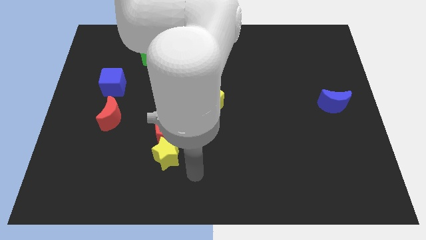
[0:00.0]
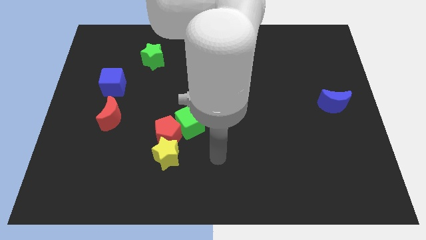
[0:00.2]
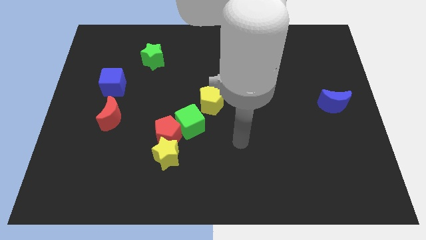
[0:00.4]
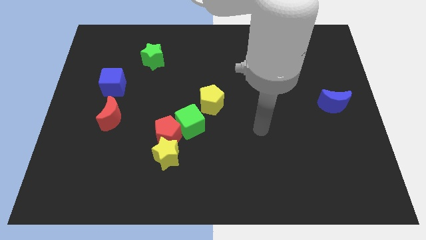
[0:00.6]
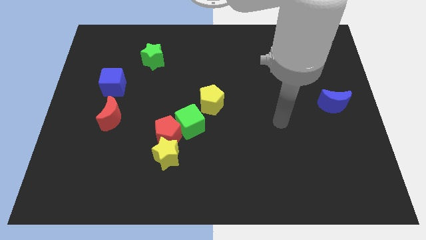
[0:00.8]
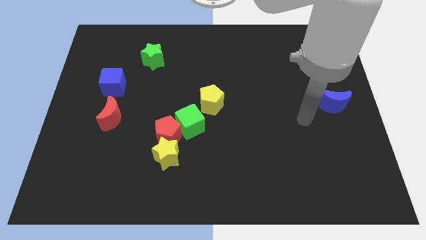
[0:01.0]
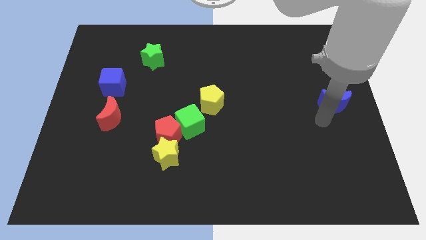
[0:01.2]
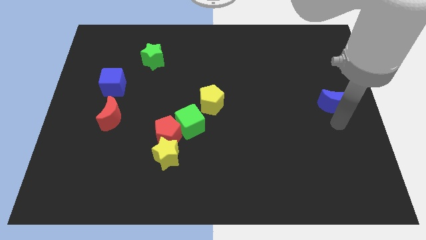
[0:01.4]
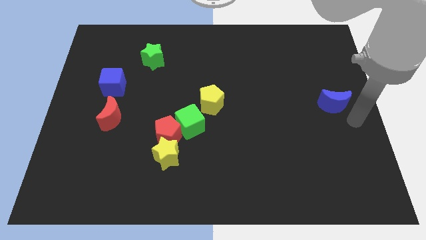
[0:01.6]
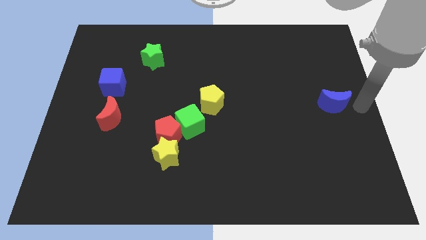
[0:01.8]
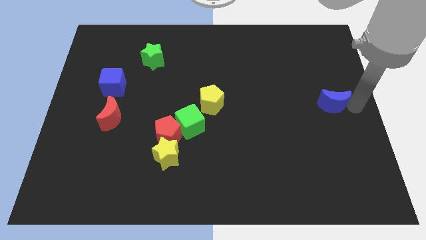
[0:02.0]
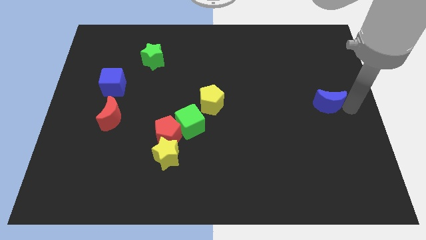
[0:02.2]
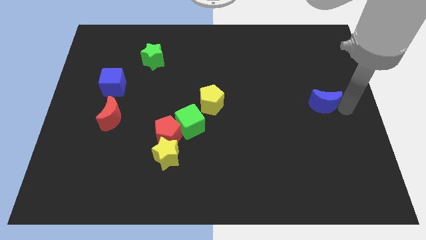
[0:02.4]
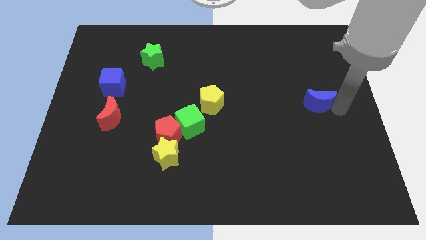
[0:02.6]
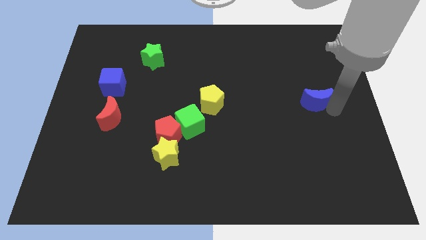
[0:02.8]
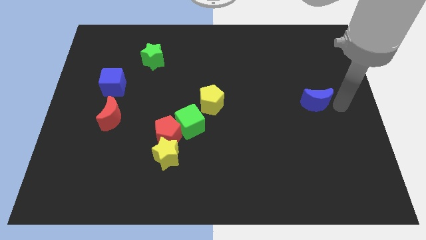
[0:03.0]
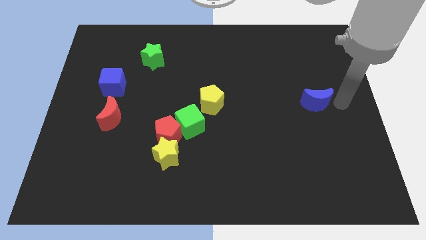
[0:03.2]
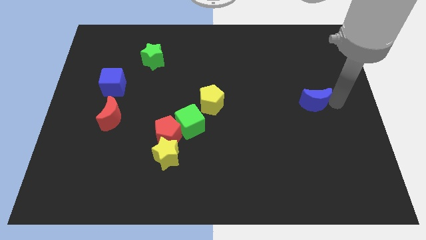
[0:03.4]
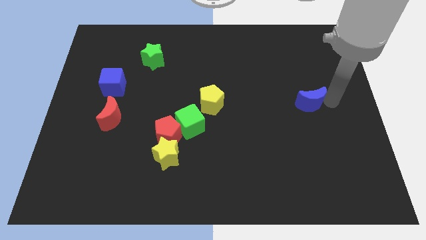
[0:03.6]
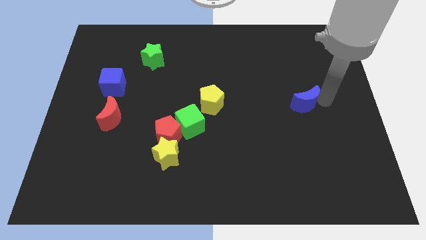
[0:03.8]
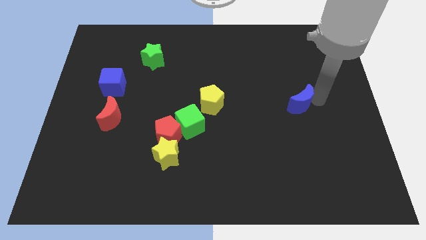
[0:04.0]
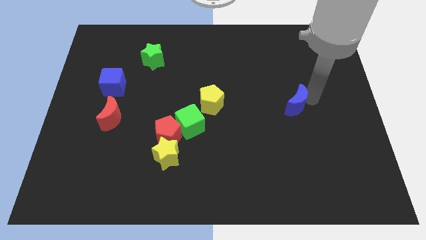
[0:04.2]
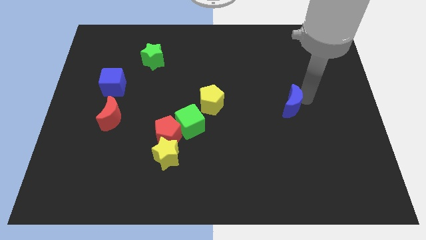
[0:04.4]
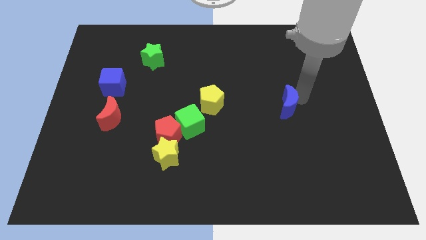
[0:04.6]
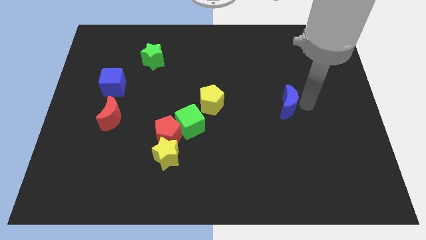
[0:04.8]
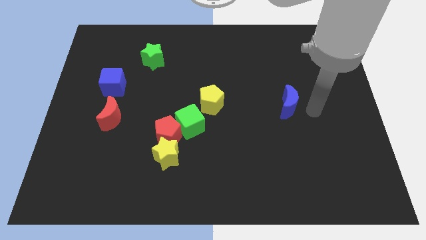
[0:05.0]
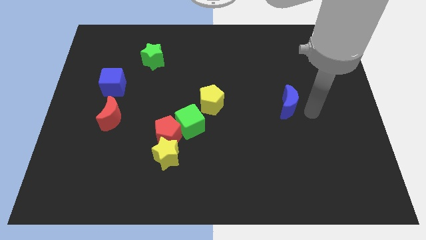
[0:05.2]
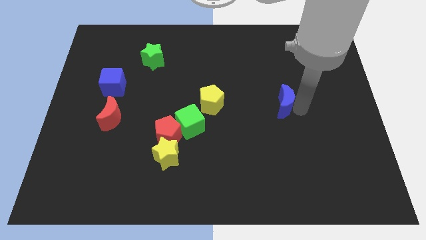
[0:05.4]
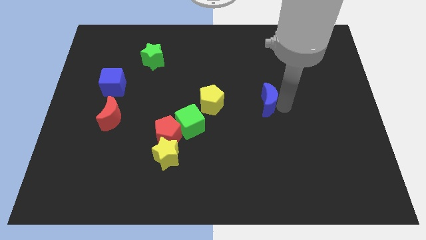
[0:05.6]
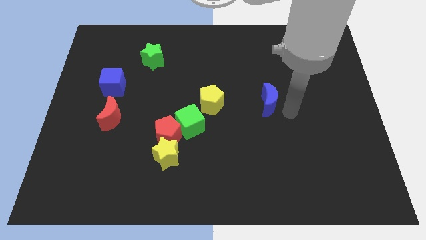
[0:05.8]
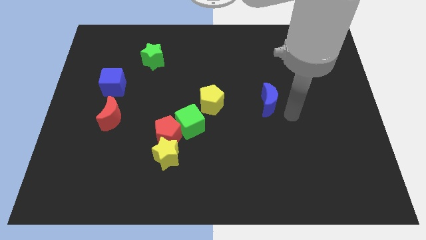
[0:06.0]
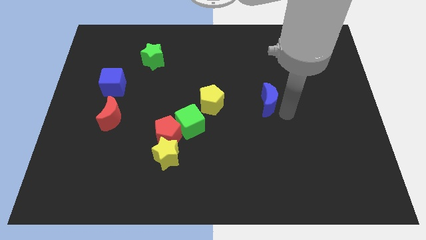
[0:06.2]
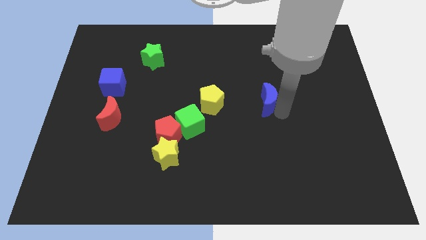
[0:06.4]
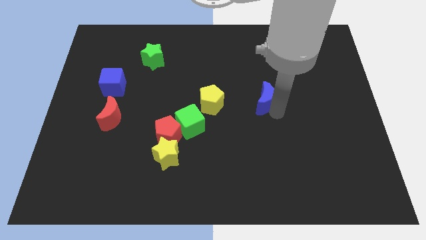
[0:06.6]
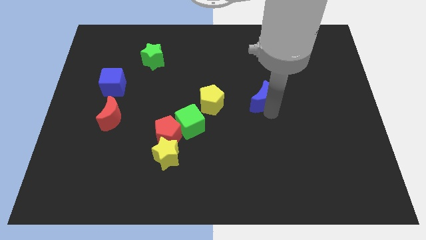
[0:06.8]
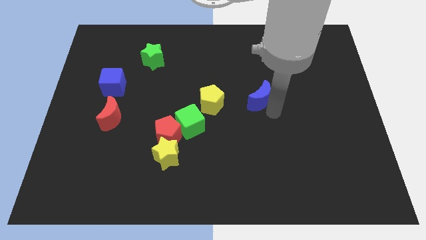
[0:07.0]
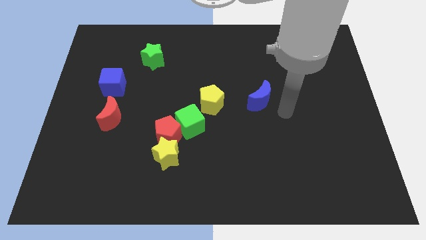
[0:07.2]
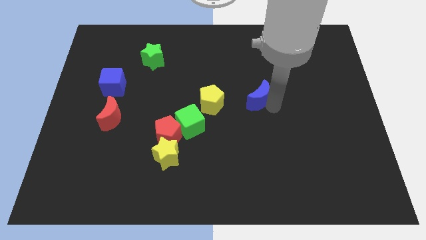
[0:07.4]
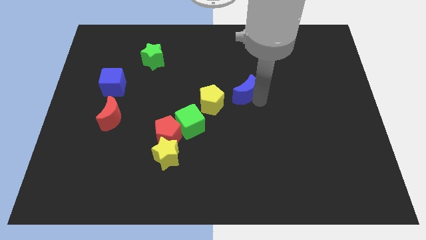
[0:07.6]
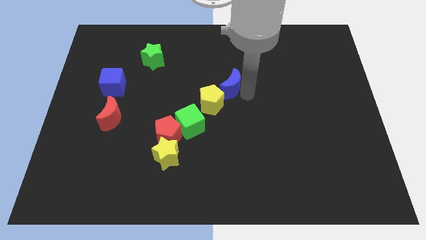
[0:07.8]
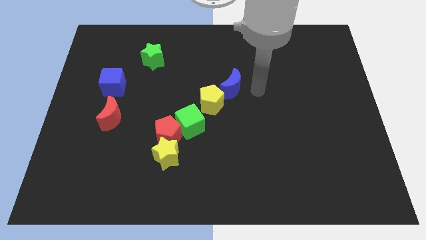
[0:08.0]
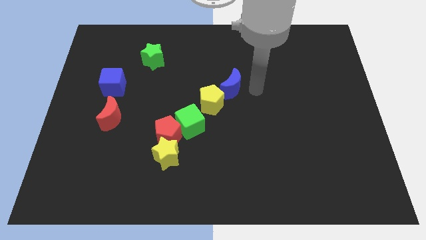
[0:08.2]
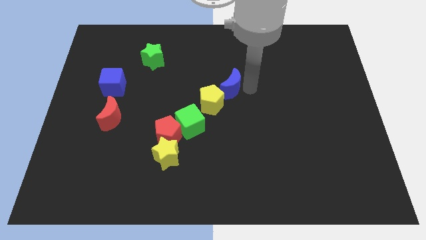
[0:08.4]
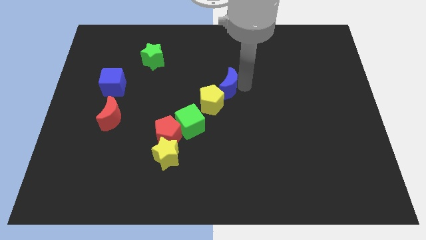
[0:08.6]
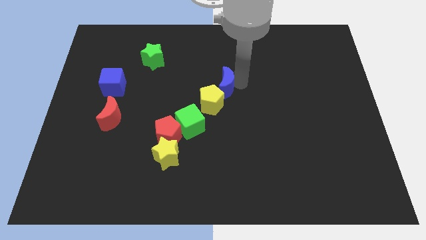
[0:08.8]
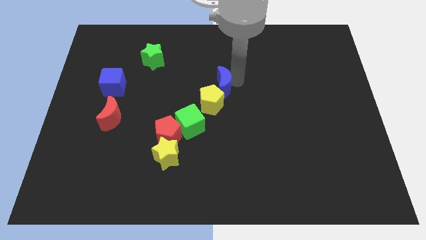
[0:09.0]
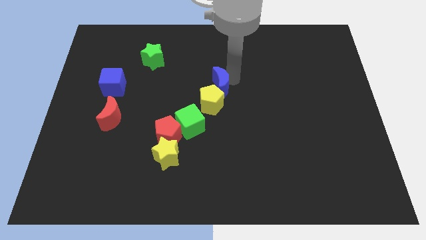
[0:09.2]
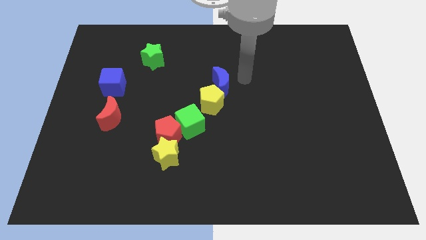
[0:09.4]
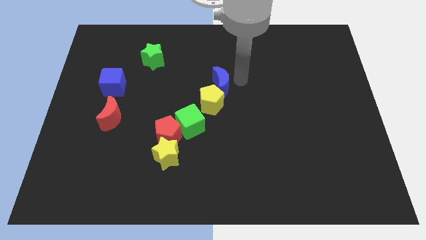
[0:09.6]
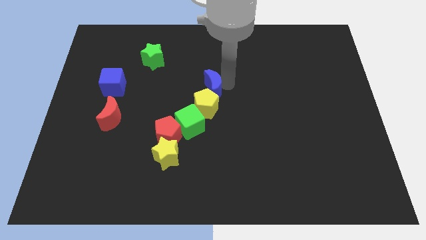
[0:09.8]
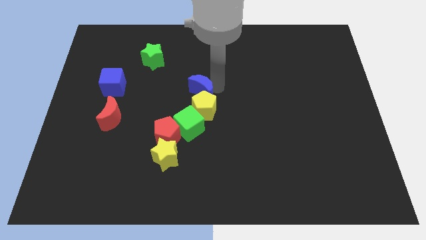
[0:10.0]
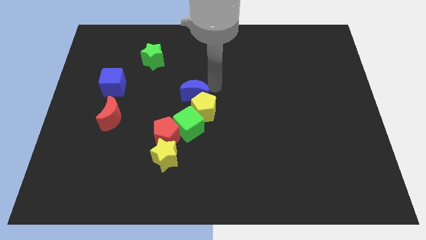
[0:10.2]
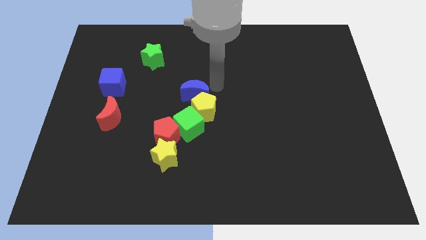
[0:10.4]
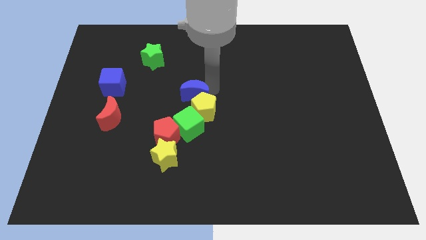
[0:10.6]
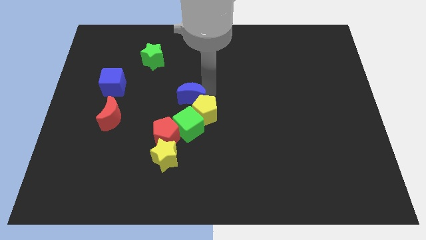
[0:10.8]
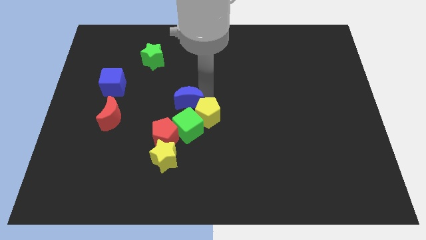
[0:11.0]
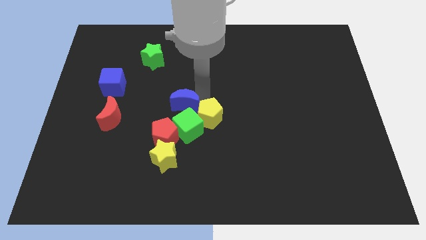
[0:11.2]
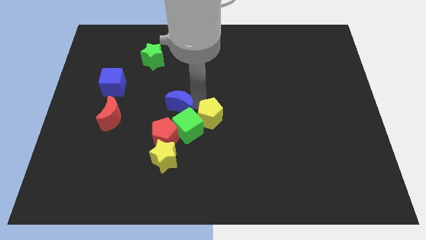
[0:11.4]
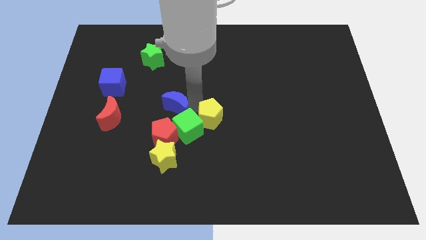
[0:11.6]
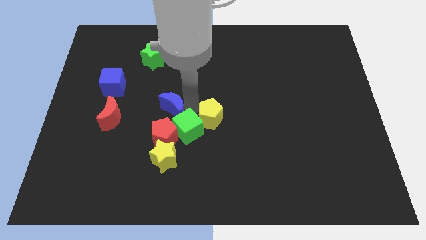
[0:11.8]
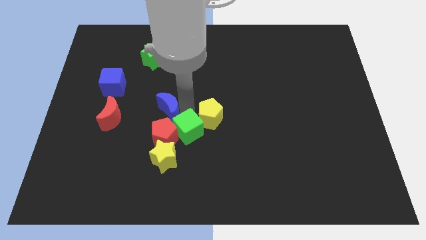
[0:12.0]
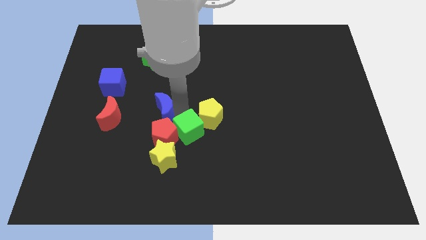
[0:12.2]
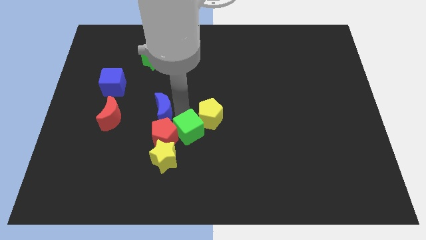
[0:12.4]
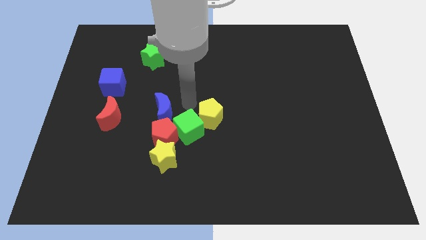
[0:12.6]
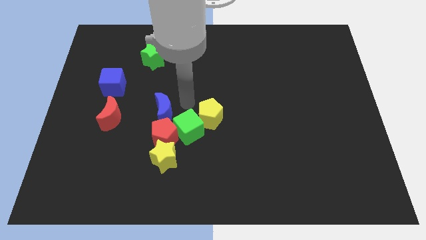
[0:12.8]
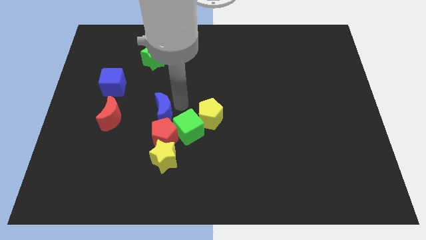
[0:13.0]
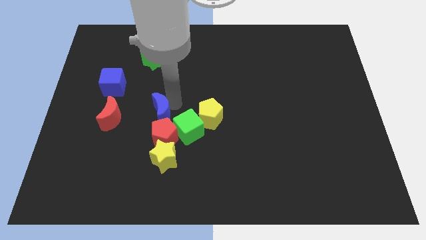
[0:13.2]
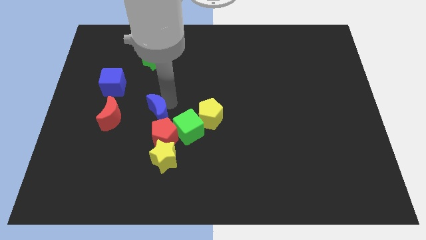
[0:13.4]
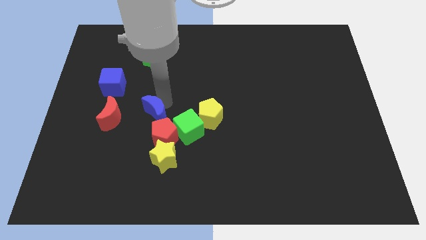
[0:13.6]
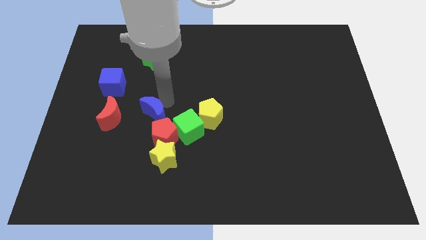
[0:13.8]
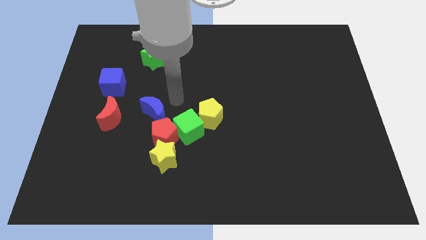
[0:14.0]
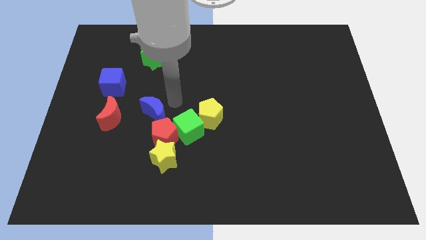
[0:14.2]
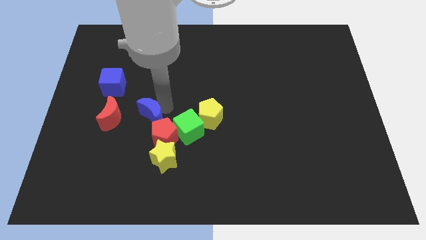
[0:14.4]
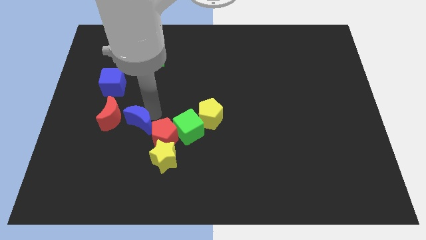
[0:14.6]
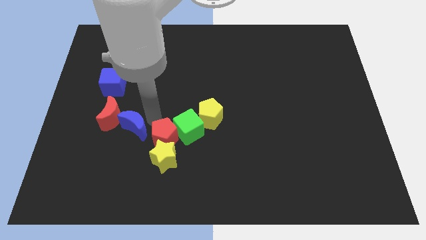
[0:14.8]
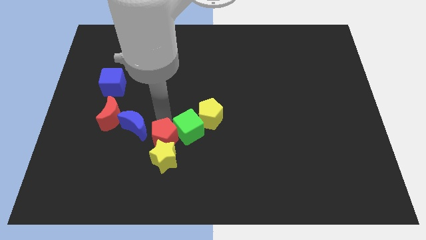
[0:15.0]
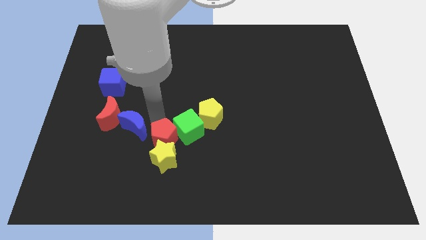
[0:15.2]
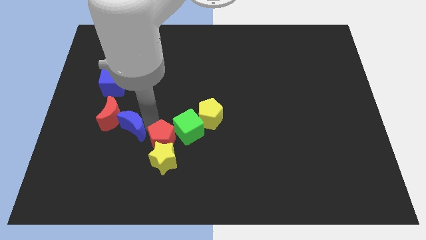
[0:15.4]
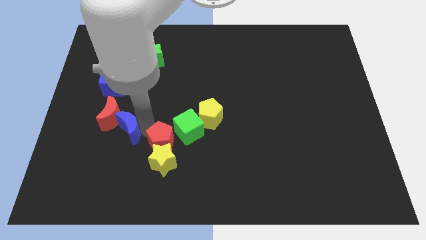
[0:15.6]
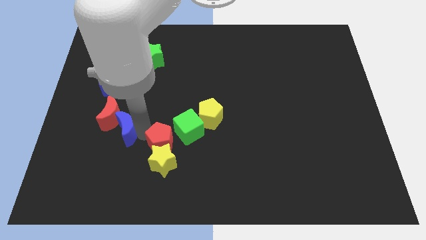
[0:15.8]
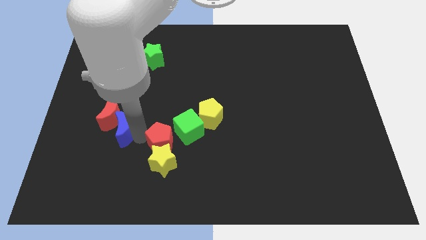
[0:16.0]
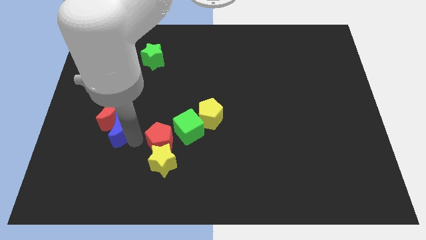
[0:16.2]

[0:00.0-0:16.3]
put the blue moon to the bottom of the blue cube
